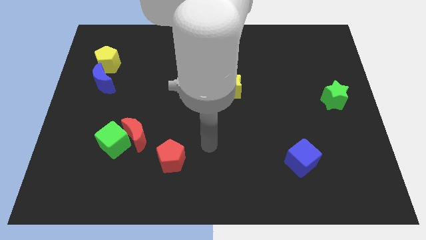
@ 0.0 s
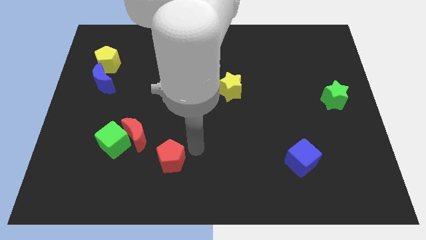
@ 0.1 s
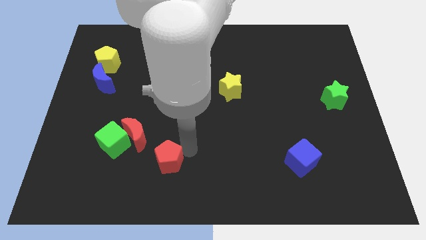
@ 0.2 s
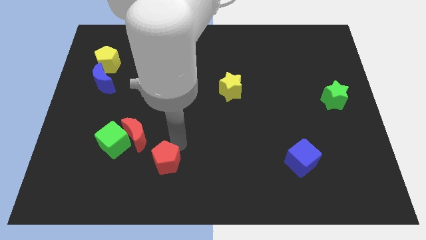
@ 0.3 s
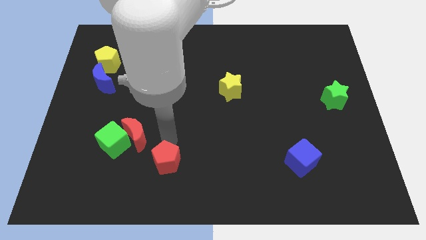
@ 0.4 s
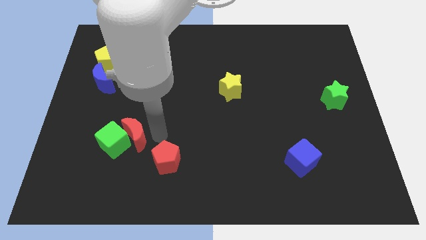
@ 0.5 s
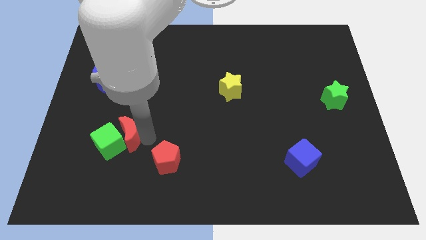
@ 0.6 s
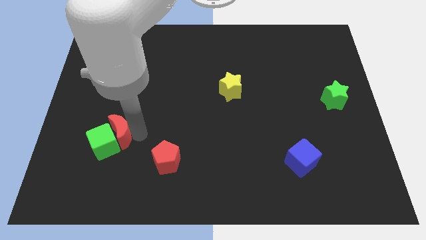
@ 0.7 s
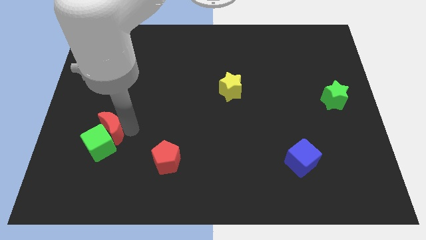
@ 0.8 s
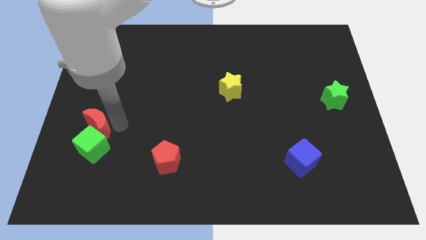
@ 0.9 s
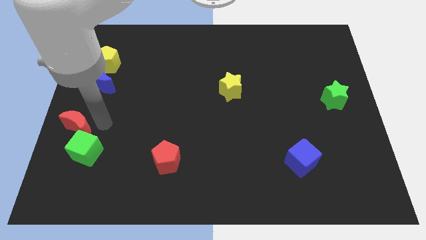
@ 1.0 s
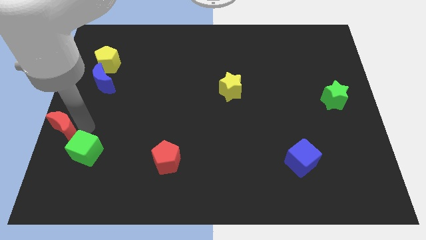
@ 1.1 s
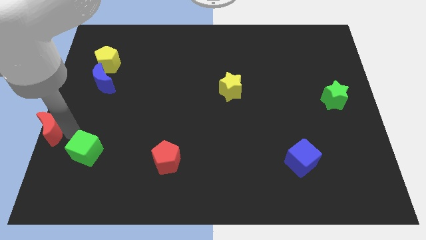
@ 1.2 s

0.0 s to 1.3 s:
pull the green cube apart from the red moon

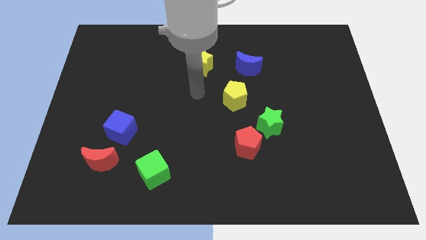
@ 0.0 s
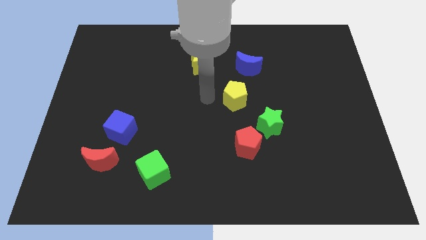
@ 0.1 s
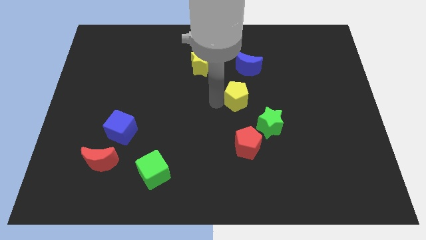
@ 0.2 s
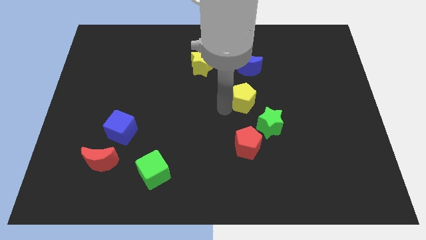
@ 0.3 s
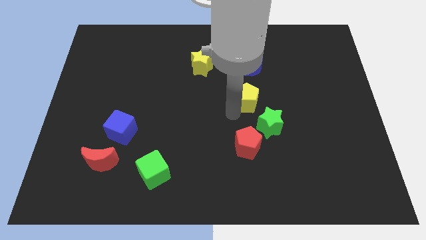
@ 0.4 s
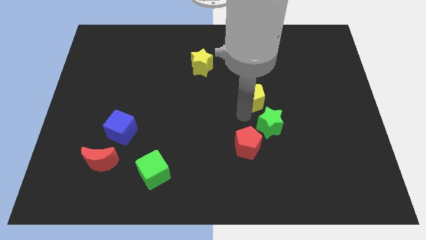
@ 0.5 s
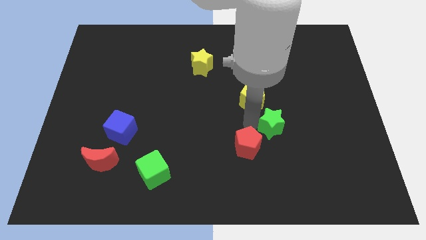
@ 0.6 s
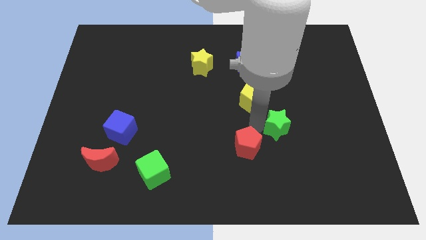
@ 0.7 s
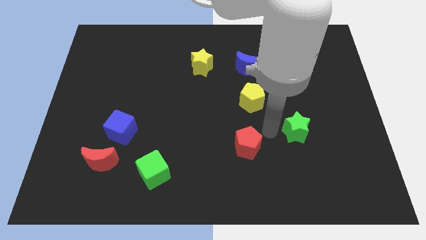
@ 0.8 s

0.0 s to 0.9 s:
pull the red pentagon apart from the green star

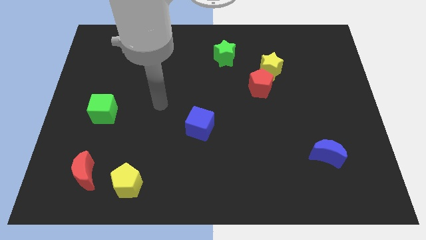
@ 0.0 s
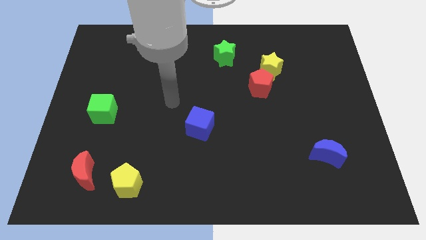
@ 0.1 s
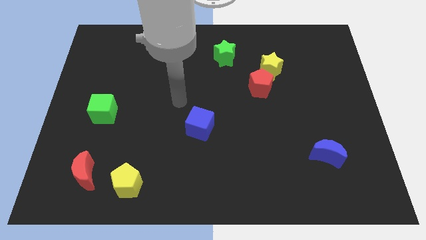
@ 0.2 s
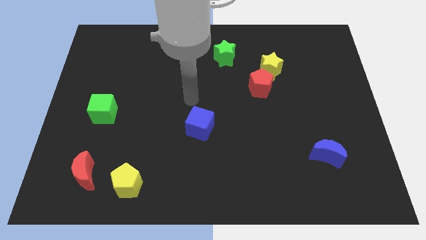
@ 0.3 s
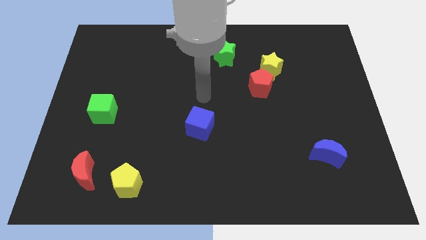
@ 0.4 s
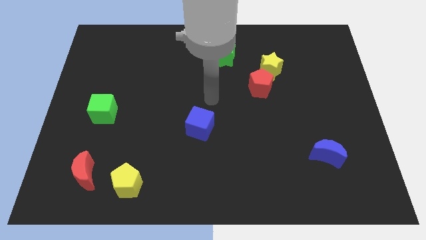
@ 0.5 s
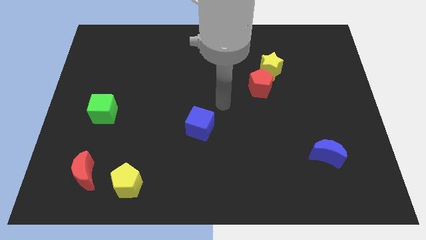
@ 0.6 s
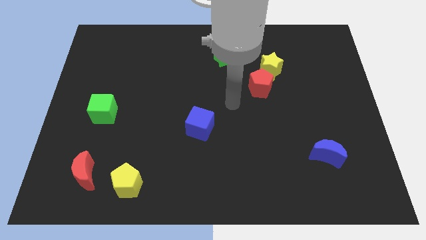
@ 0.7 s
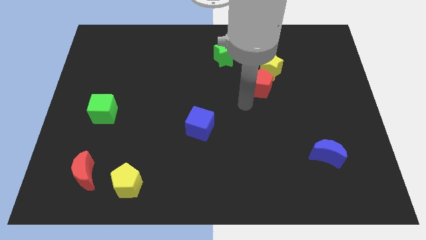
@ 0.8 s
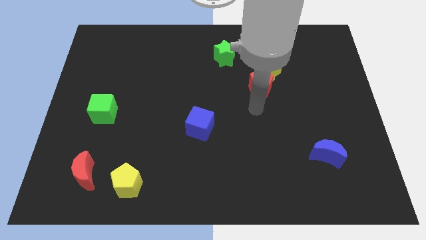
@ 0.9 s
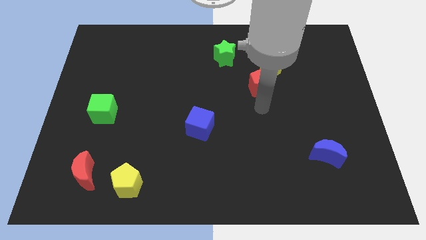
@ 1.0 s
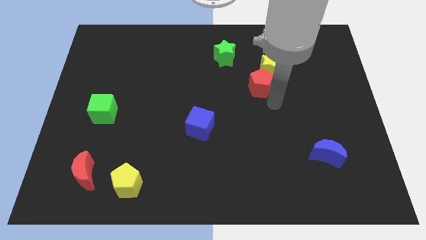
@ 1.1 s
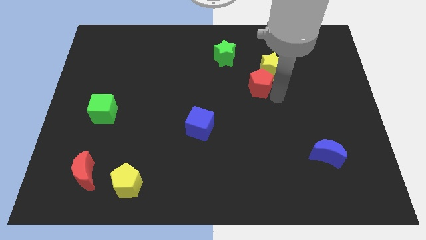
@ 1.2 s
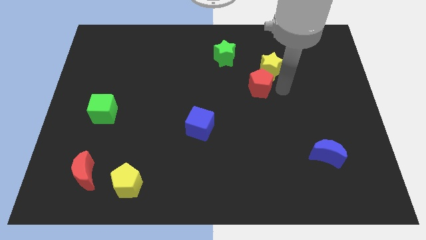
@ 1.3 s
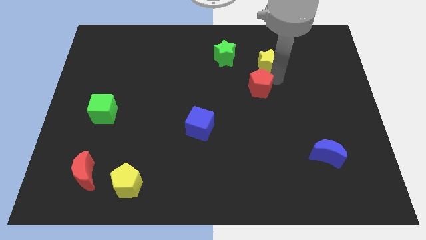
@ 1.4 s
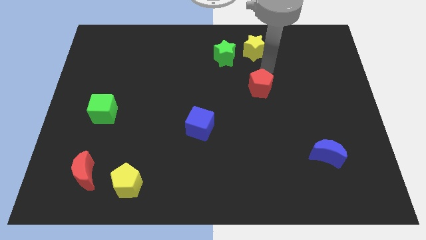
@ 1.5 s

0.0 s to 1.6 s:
move the red pentagon away from the yellow star

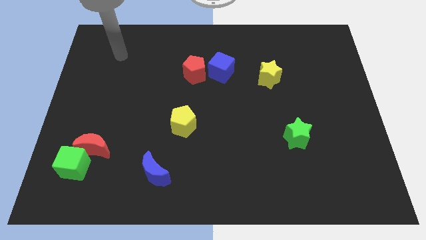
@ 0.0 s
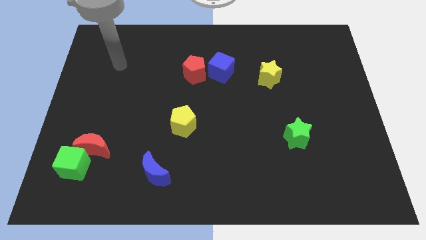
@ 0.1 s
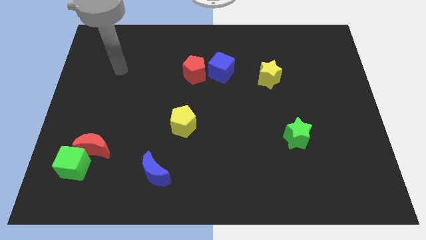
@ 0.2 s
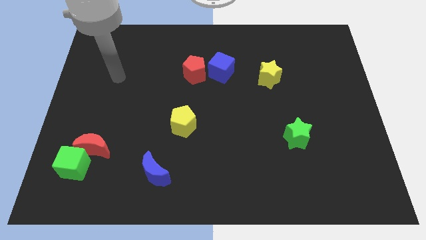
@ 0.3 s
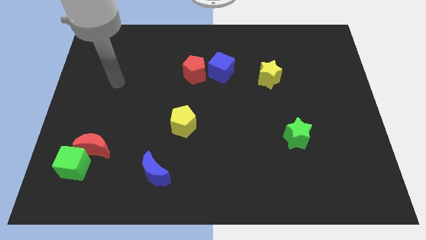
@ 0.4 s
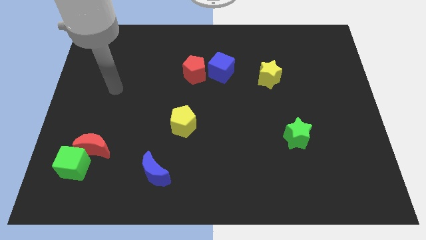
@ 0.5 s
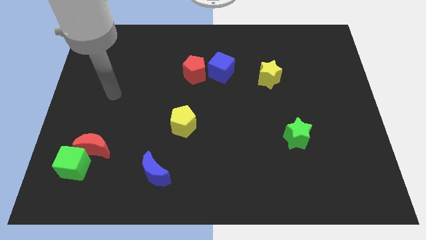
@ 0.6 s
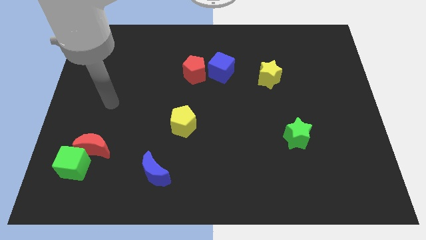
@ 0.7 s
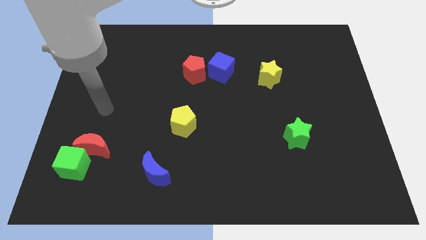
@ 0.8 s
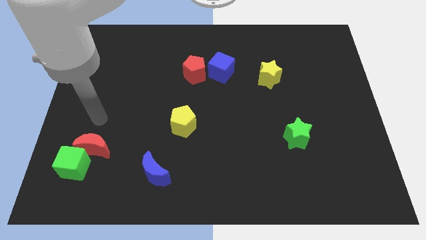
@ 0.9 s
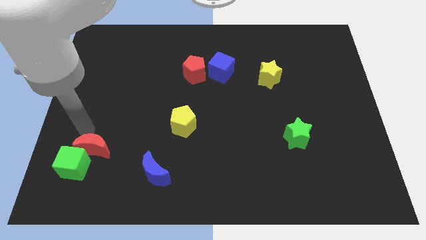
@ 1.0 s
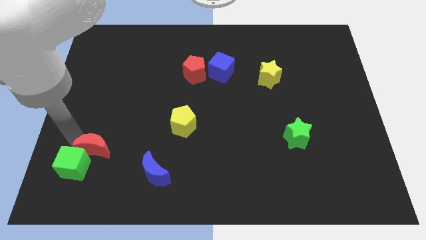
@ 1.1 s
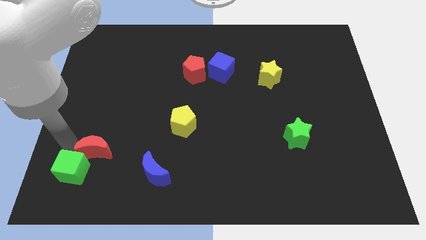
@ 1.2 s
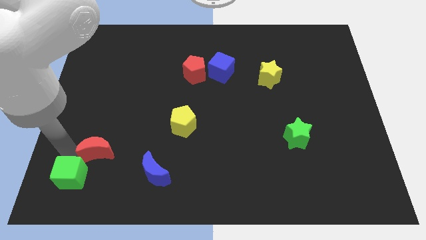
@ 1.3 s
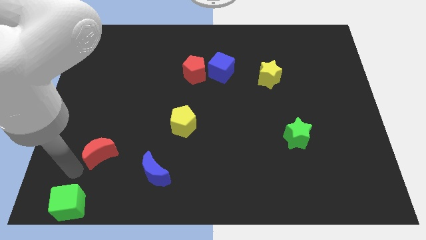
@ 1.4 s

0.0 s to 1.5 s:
move the red moon away from the green cube

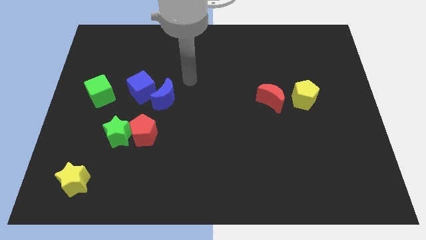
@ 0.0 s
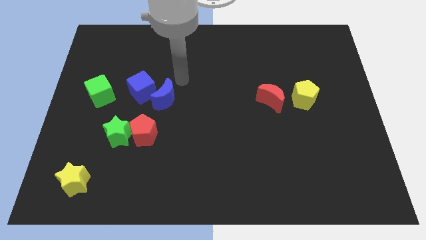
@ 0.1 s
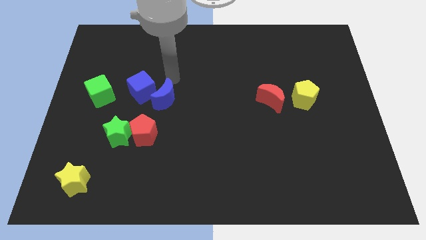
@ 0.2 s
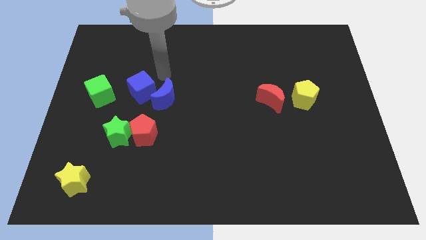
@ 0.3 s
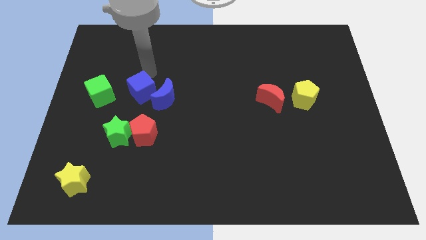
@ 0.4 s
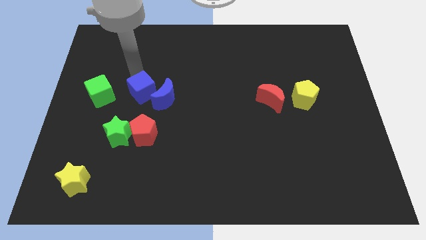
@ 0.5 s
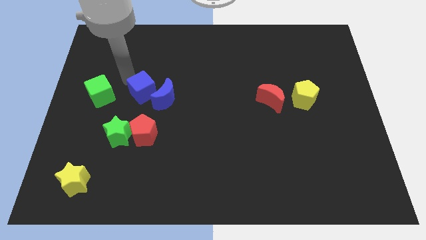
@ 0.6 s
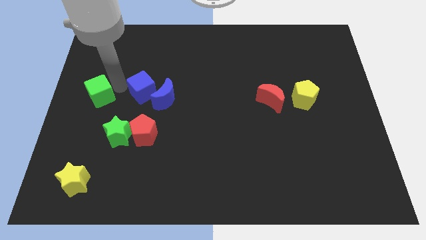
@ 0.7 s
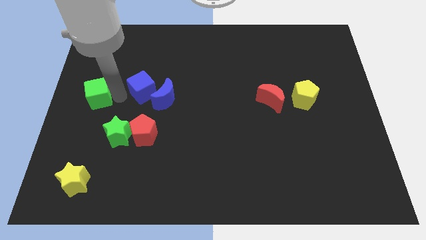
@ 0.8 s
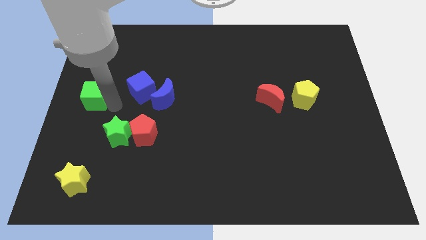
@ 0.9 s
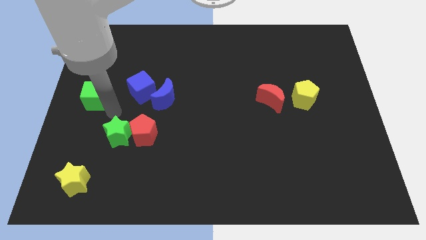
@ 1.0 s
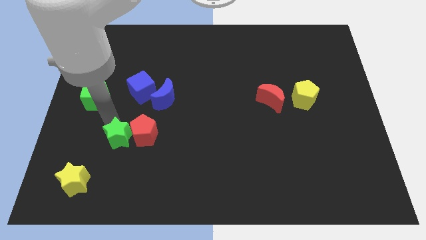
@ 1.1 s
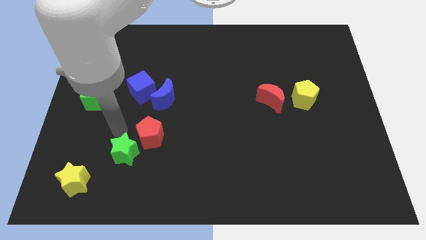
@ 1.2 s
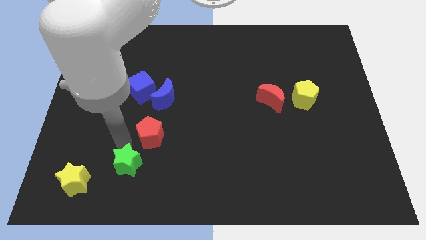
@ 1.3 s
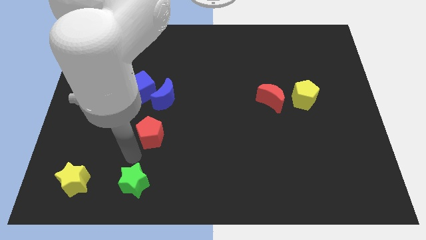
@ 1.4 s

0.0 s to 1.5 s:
separate the red pentagon from the green star

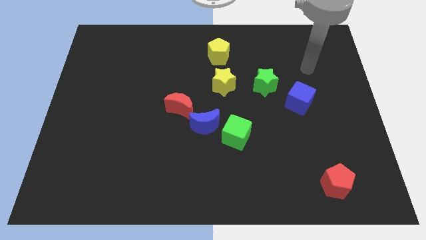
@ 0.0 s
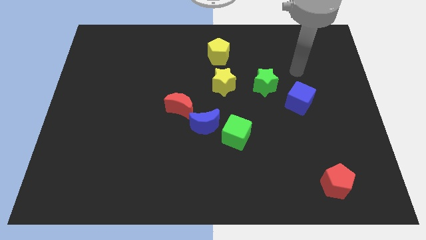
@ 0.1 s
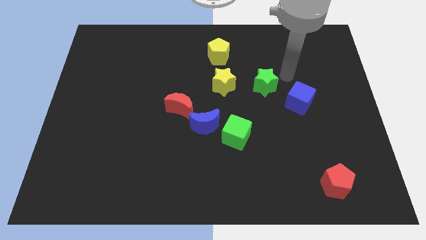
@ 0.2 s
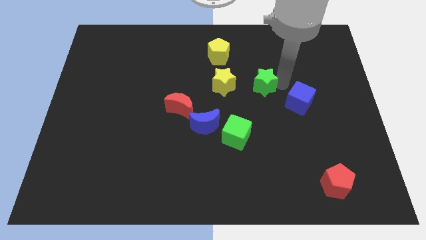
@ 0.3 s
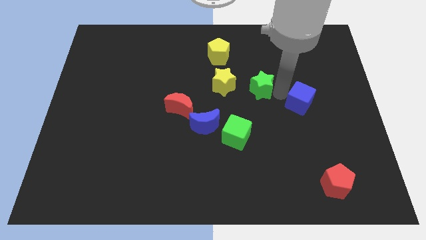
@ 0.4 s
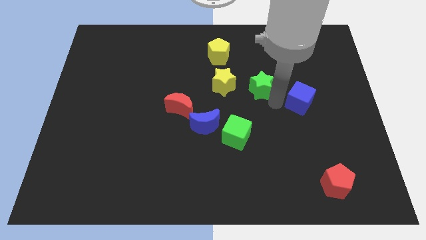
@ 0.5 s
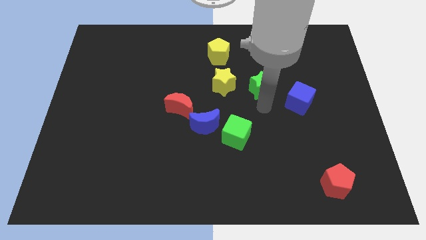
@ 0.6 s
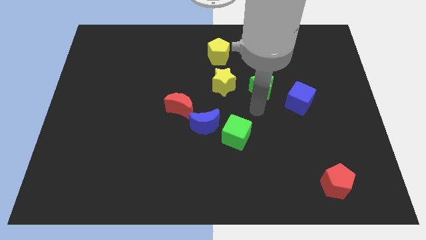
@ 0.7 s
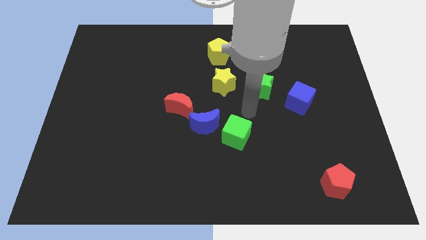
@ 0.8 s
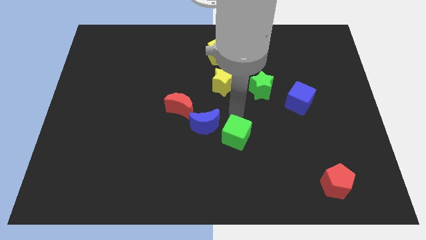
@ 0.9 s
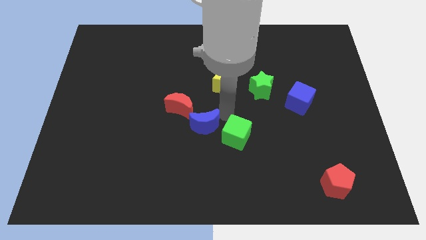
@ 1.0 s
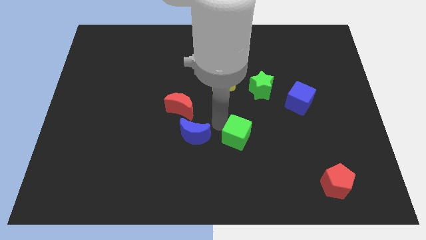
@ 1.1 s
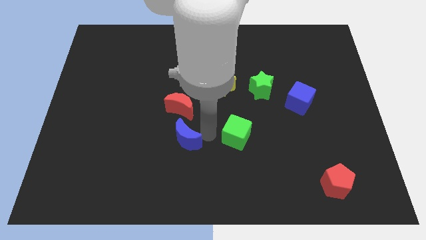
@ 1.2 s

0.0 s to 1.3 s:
move the green cube away from the blue moon

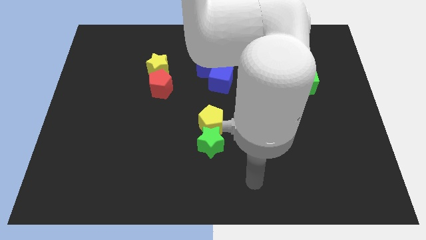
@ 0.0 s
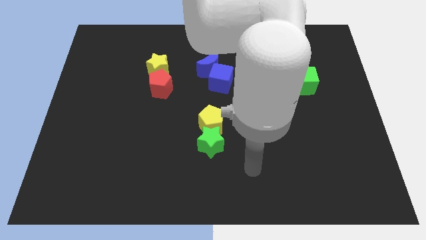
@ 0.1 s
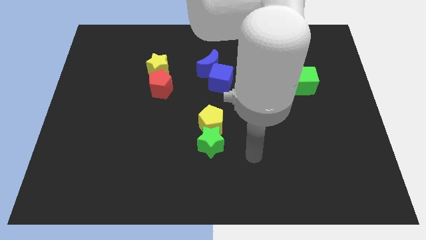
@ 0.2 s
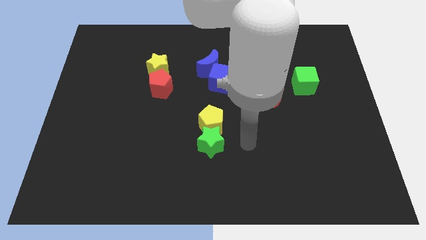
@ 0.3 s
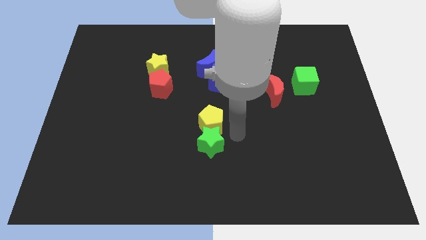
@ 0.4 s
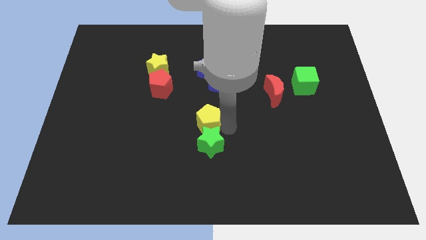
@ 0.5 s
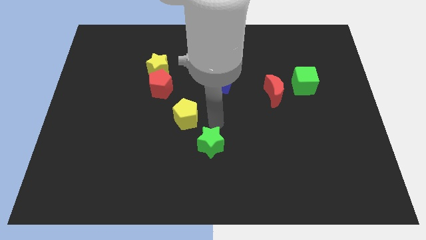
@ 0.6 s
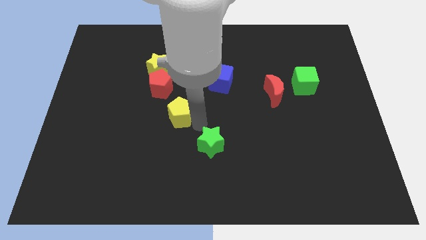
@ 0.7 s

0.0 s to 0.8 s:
separate the green star from the yellow pentagon

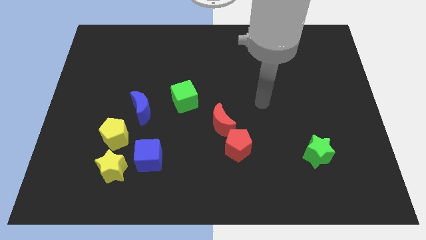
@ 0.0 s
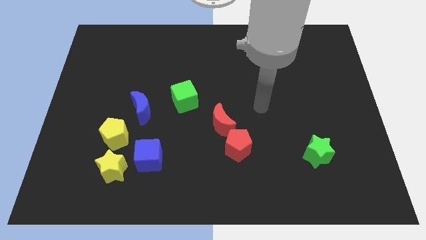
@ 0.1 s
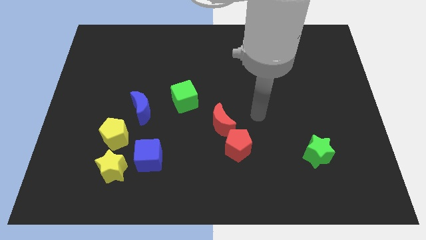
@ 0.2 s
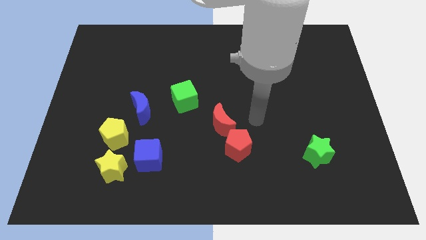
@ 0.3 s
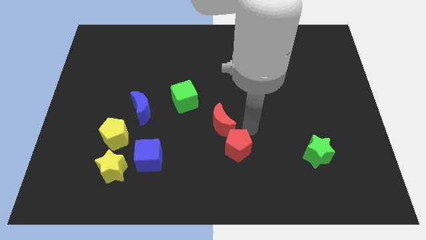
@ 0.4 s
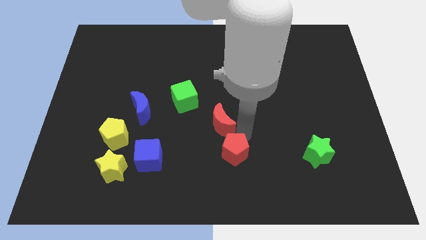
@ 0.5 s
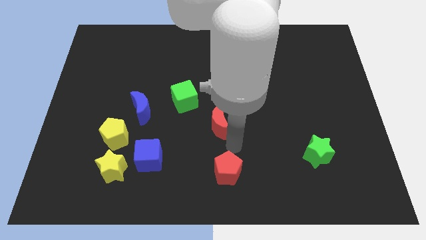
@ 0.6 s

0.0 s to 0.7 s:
move the red moon away from the red pentagon
